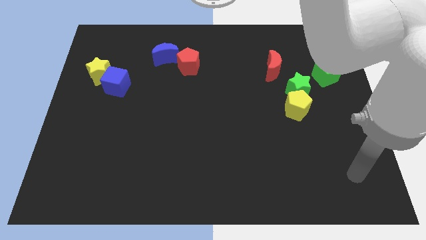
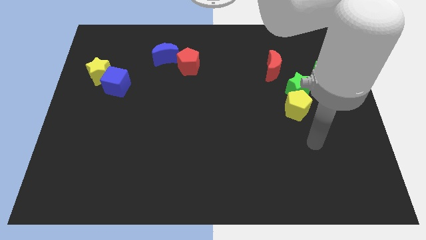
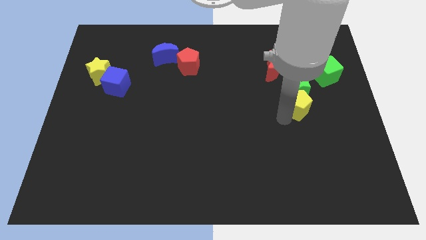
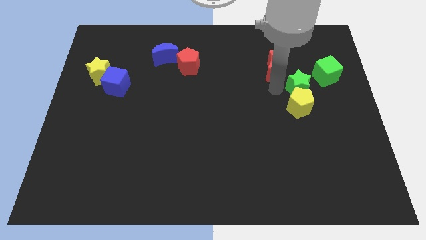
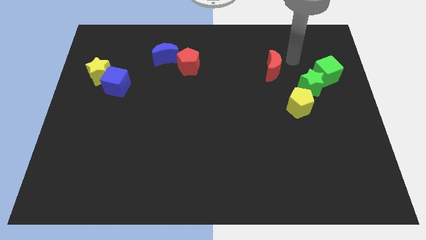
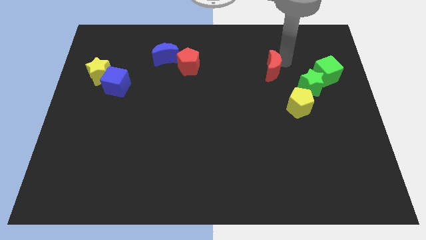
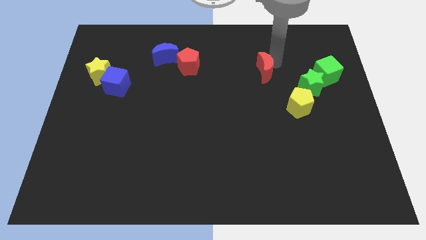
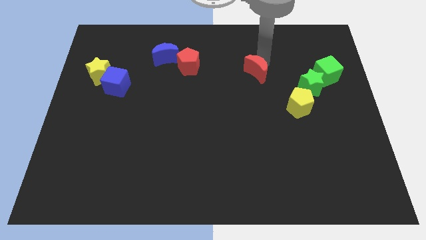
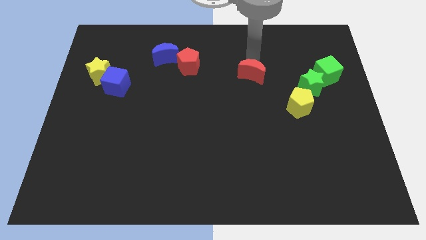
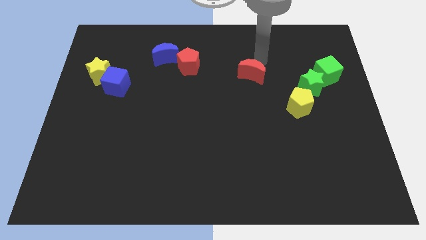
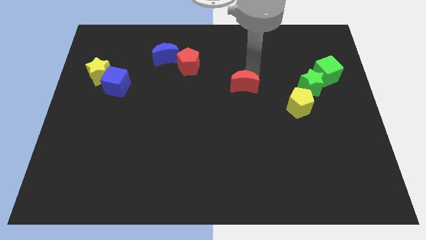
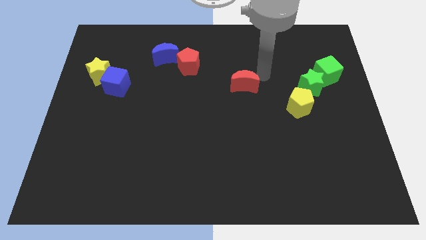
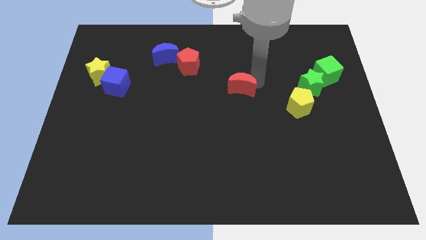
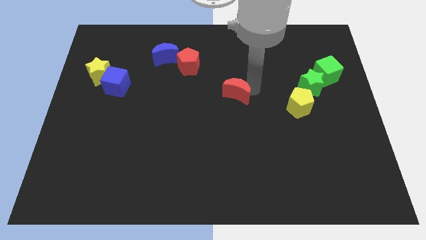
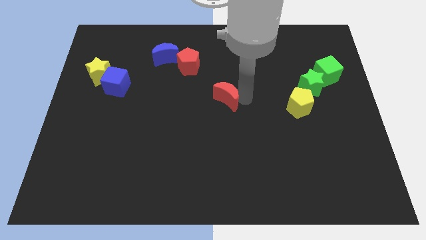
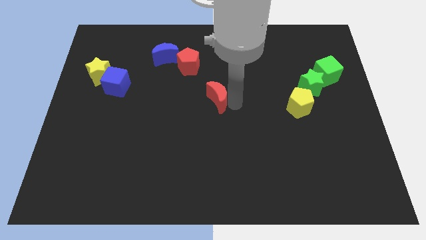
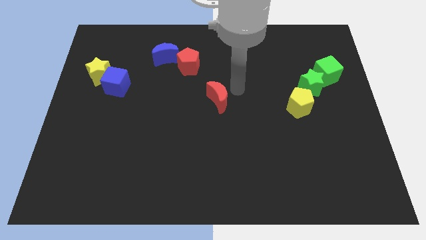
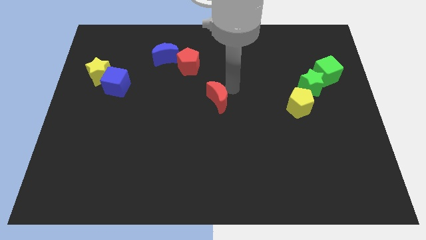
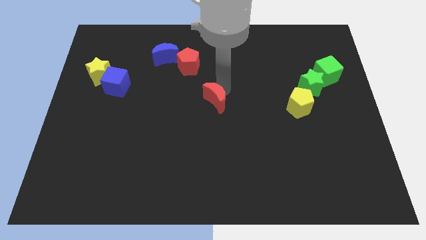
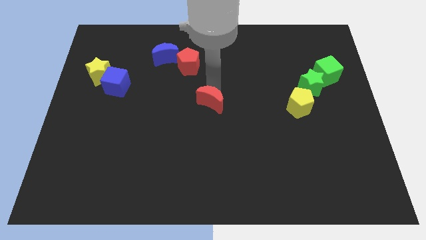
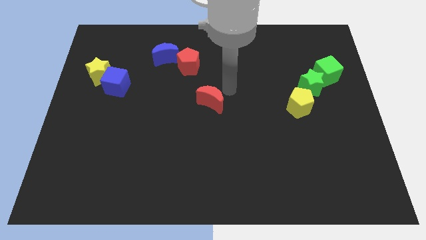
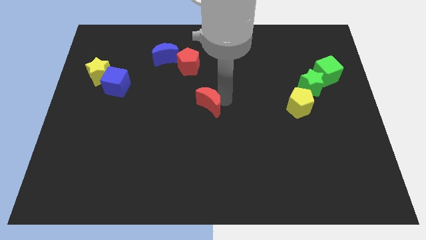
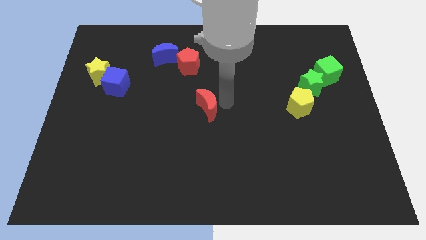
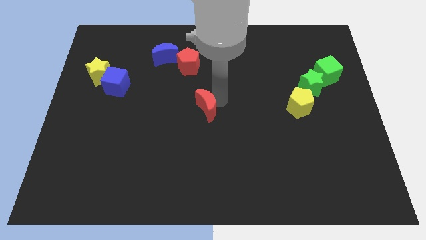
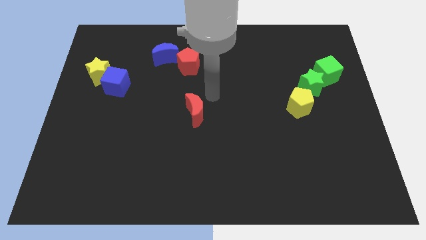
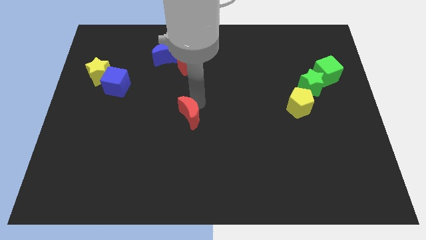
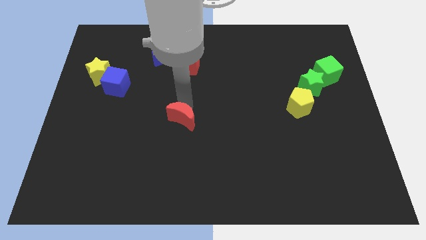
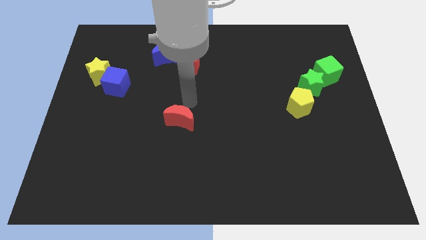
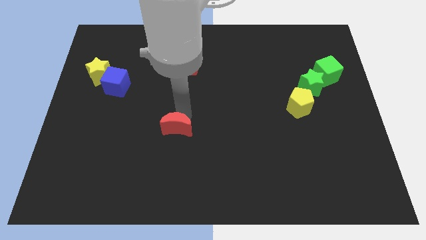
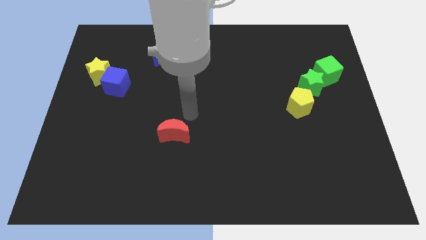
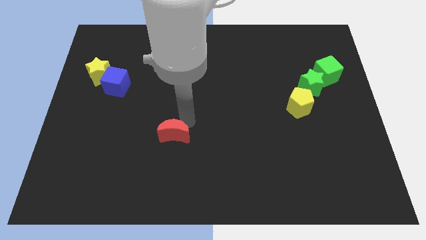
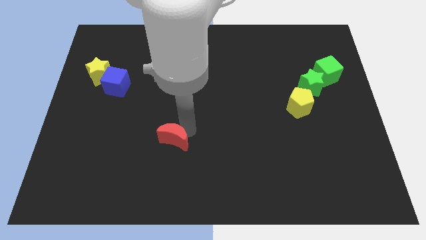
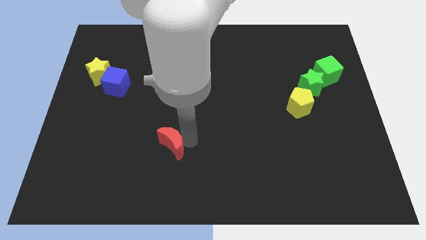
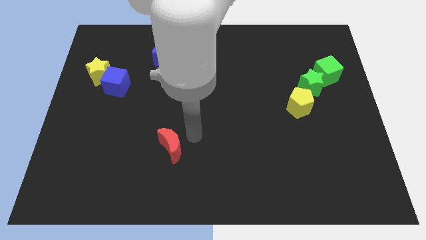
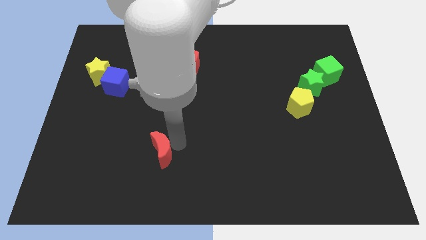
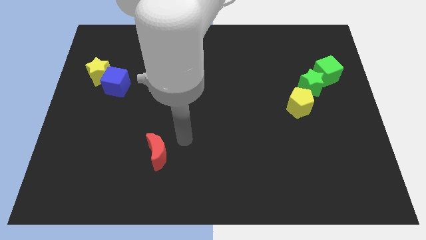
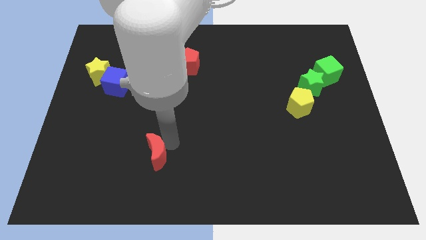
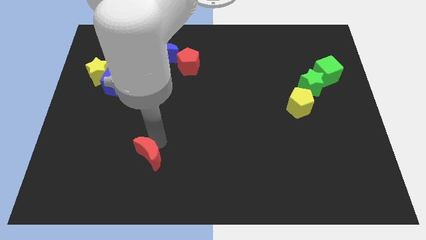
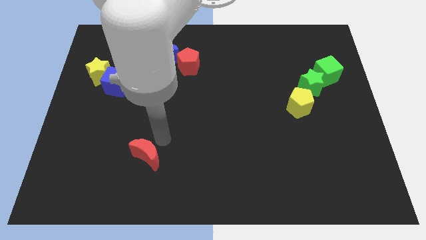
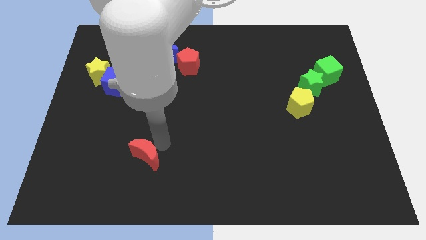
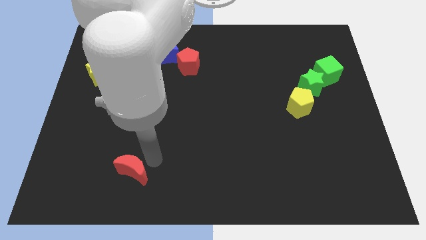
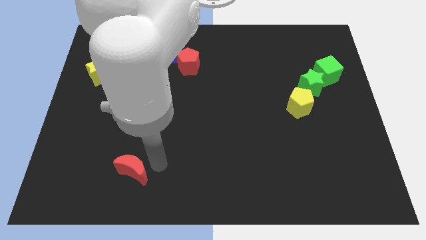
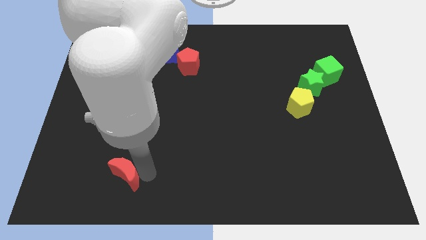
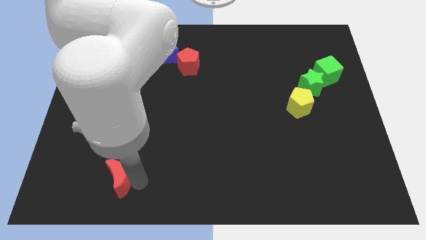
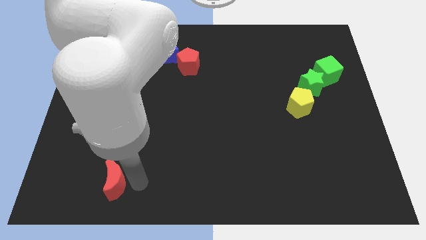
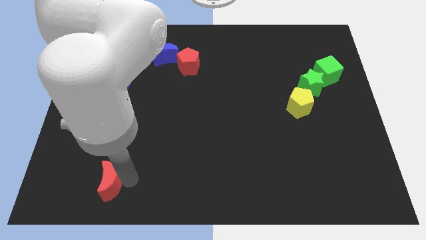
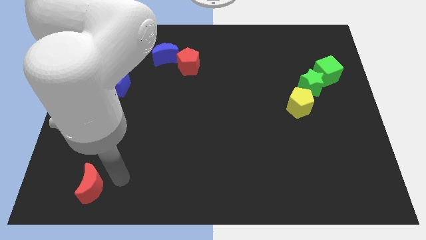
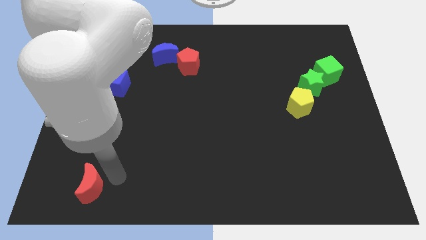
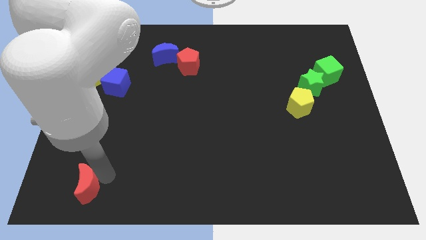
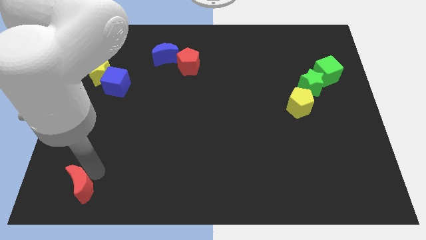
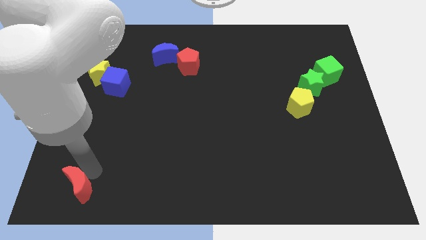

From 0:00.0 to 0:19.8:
slide the red moon to the bottom left of the board

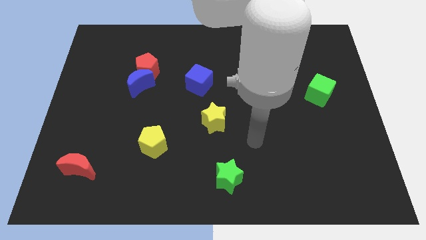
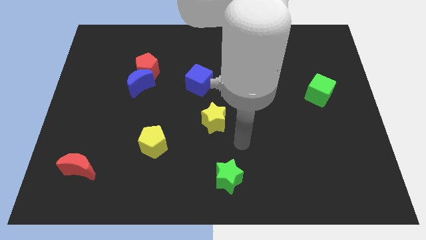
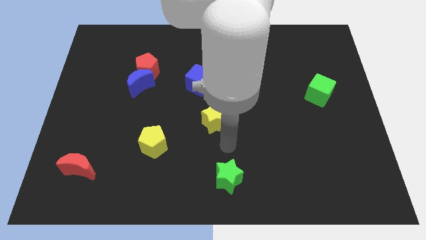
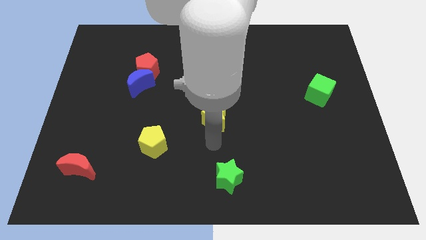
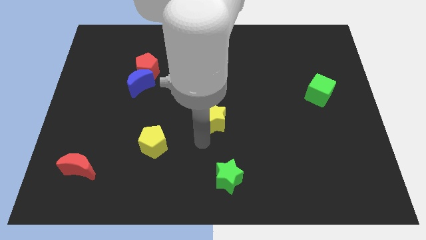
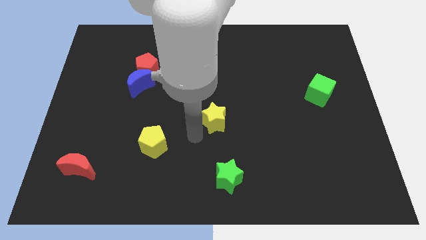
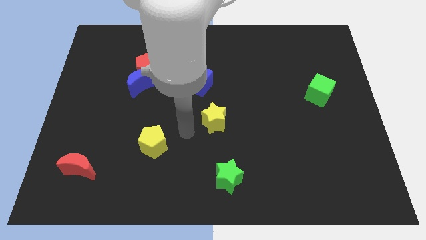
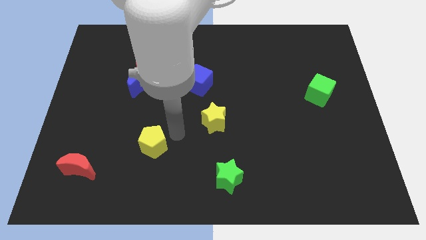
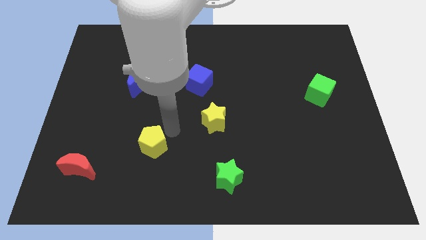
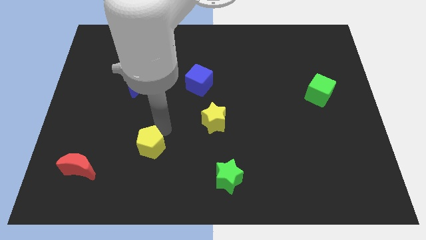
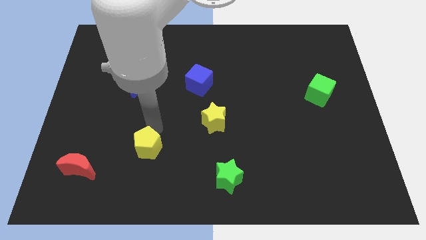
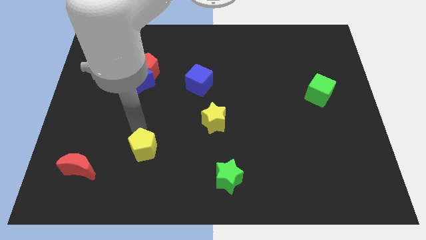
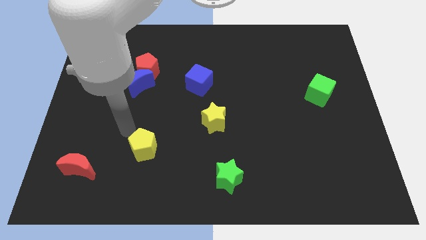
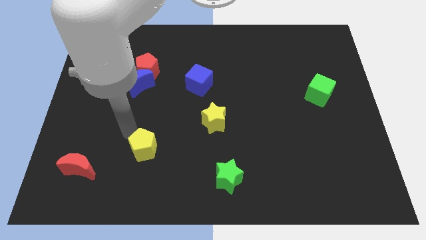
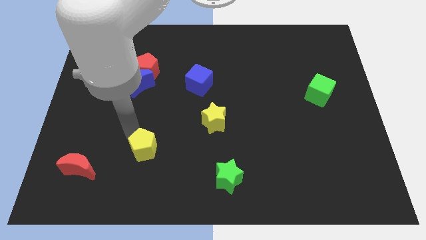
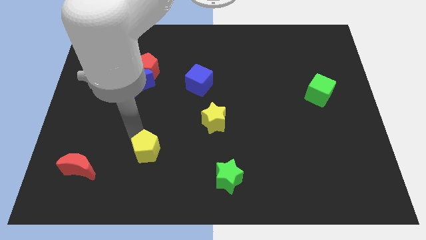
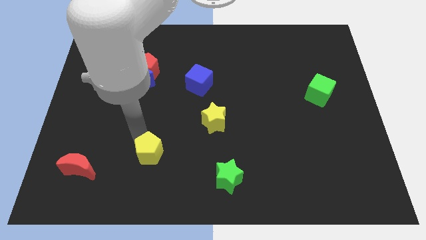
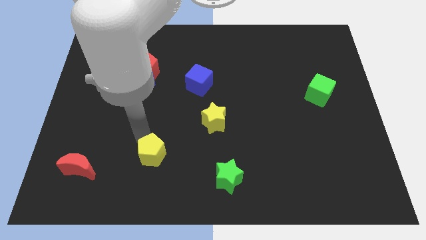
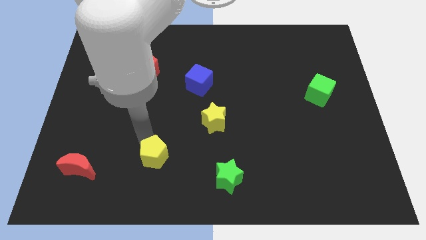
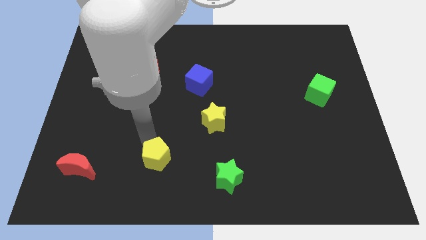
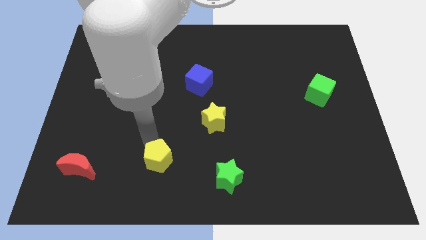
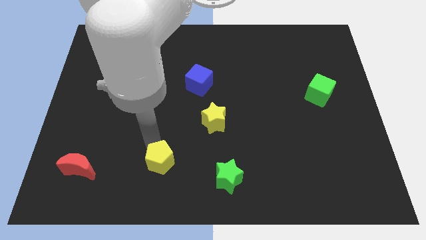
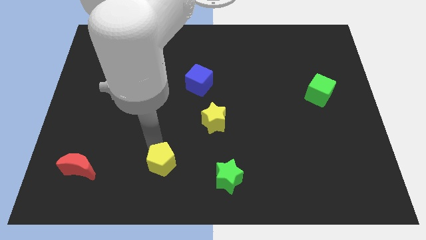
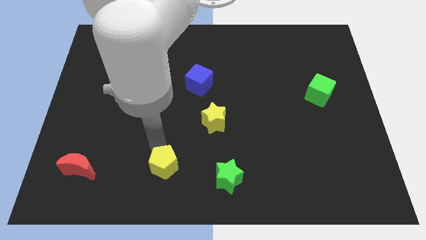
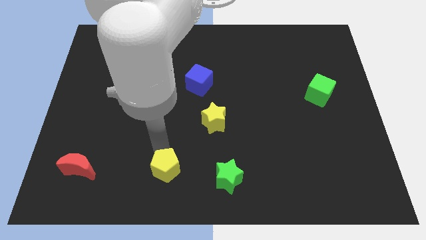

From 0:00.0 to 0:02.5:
move the yellow pentagon to the bottom side

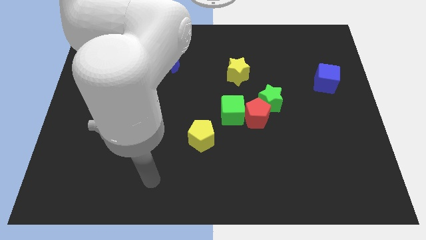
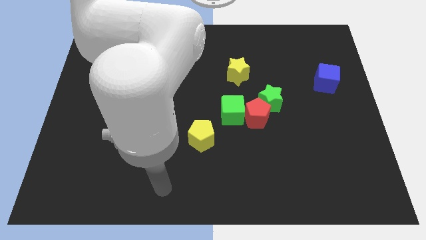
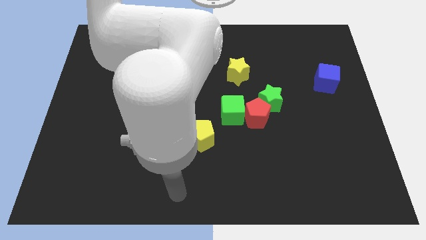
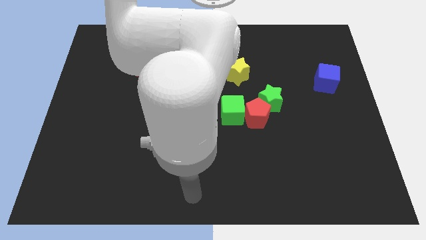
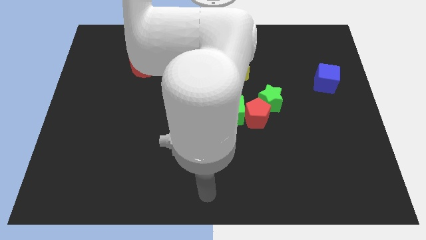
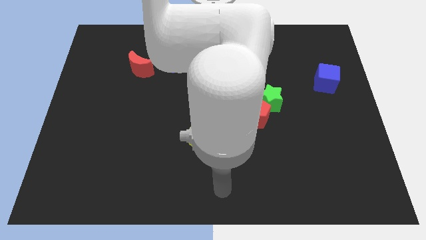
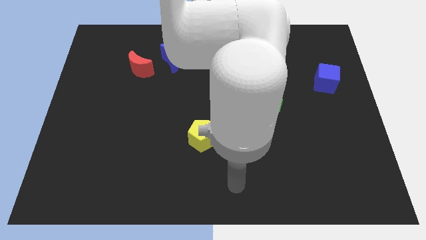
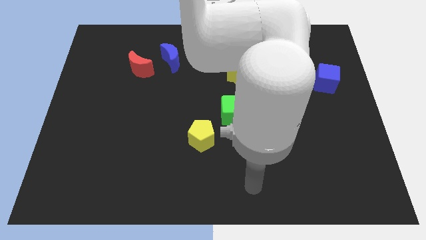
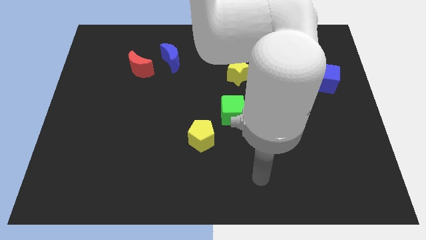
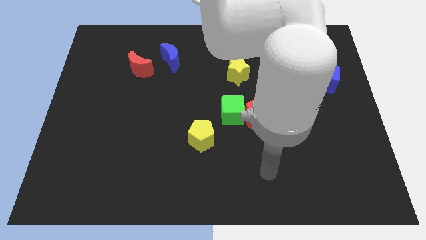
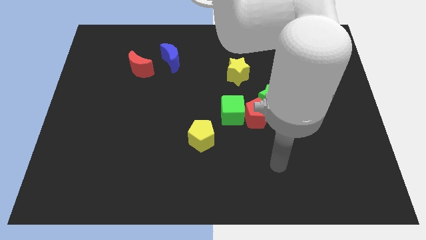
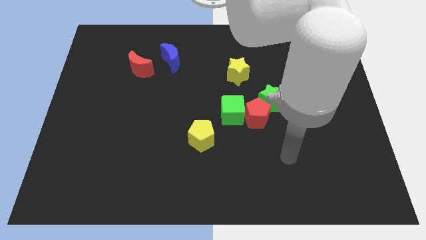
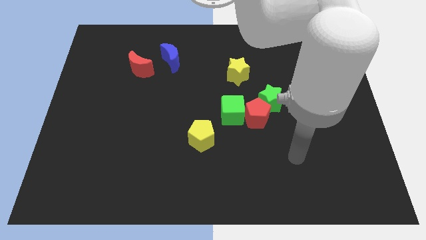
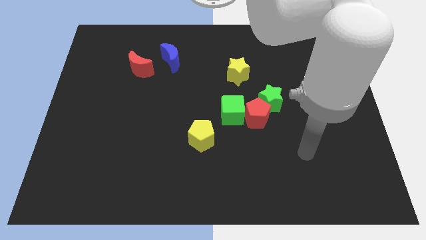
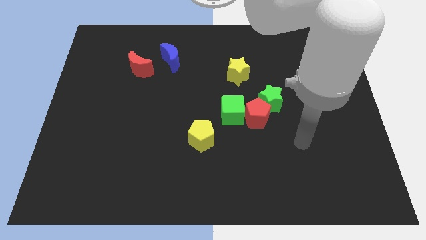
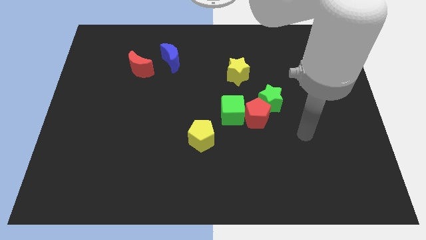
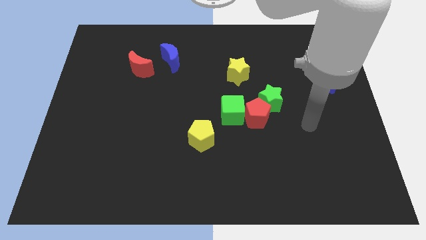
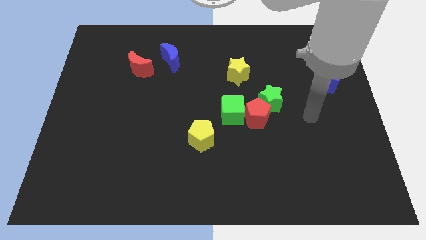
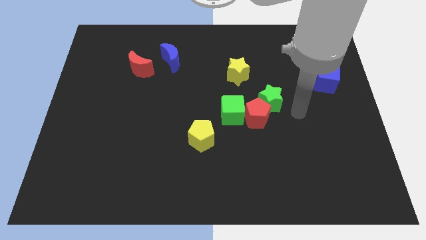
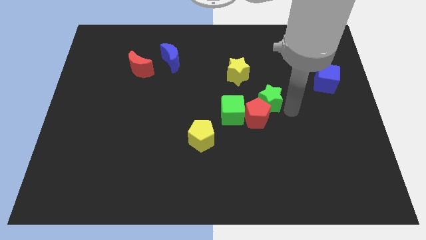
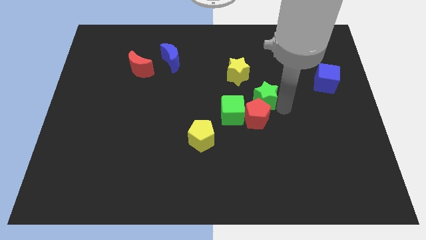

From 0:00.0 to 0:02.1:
slide the green star to the middle
